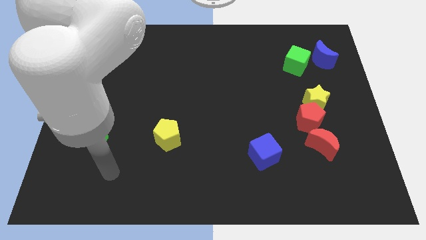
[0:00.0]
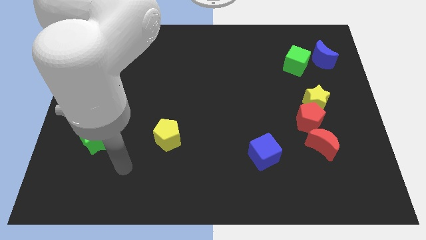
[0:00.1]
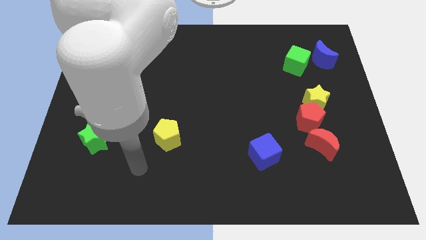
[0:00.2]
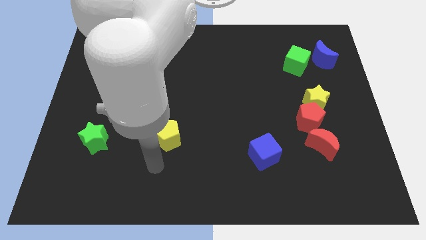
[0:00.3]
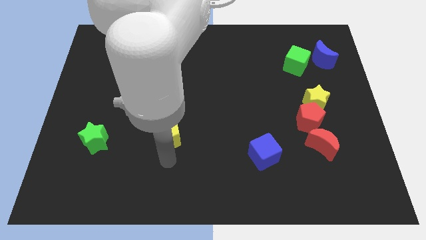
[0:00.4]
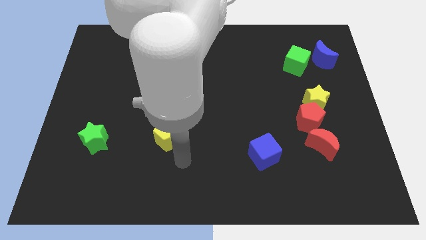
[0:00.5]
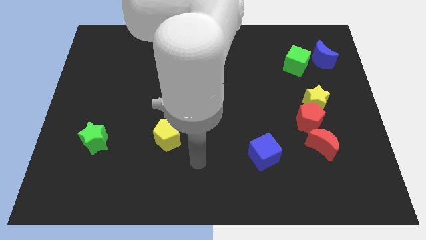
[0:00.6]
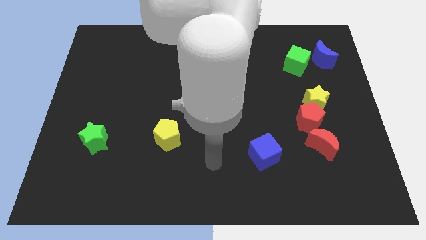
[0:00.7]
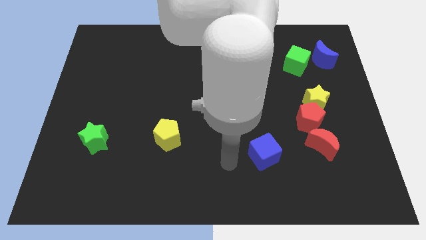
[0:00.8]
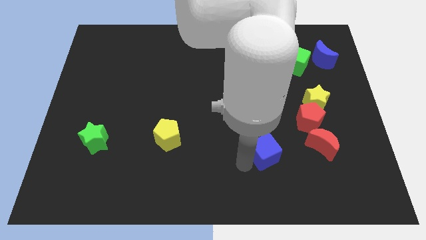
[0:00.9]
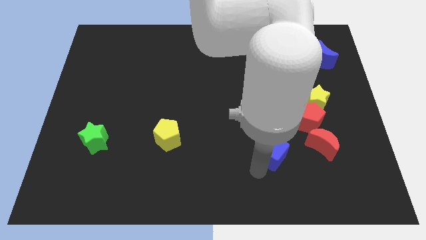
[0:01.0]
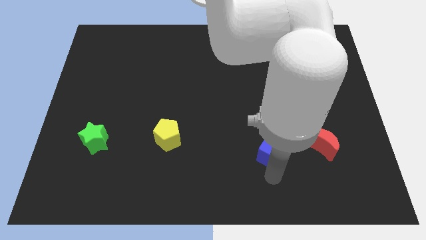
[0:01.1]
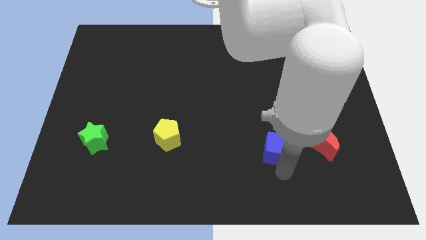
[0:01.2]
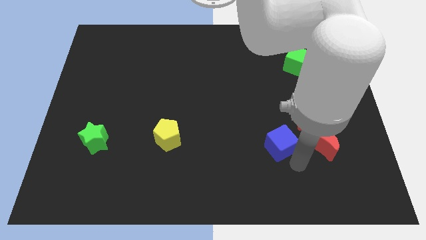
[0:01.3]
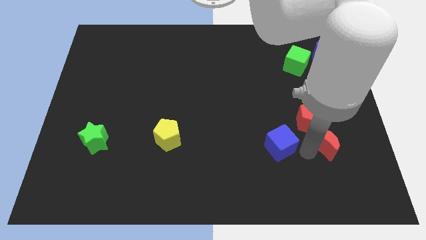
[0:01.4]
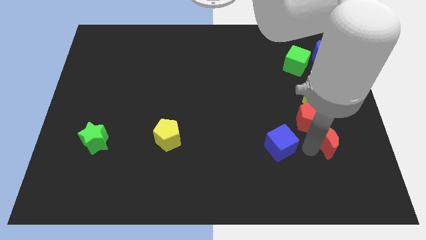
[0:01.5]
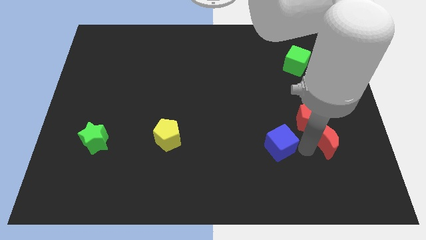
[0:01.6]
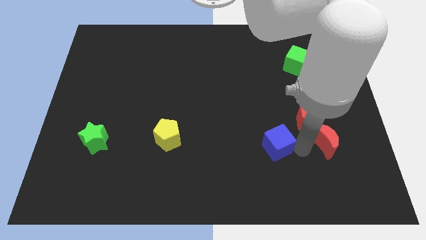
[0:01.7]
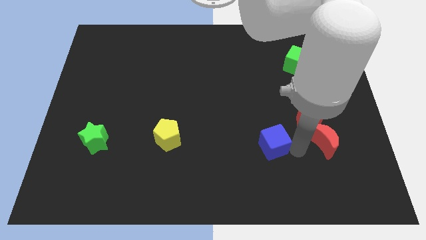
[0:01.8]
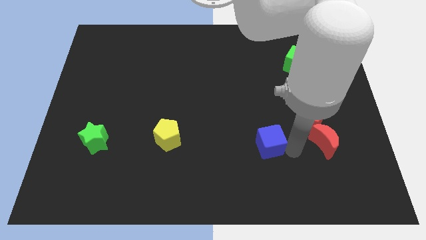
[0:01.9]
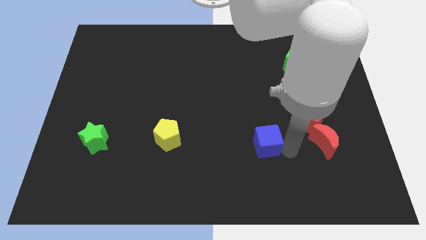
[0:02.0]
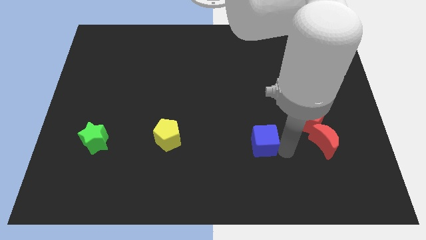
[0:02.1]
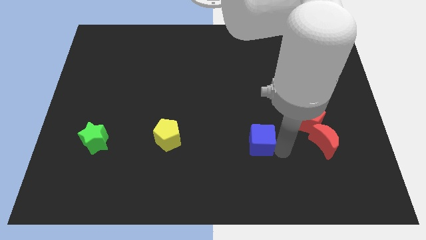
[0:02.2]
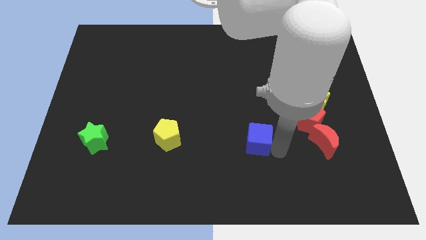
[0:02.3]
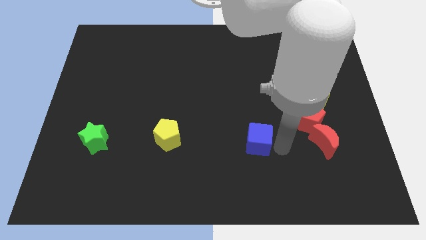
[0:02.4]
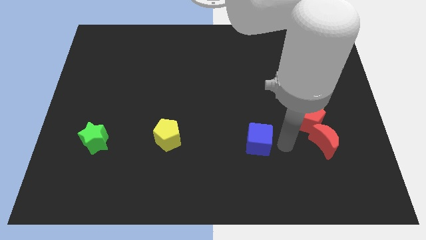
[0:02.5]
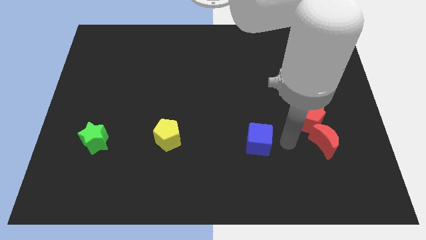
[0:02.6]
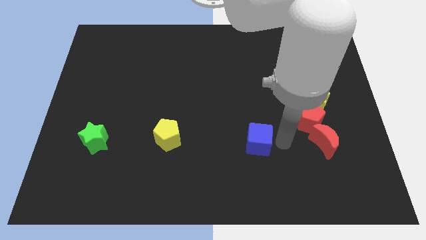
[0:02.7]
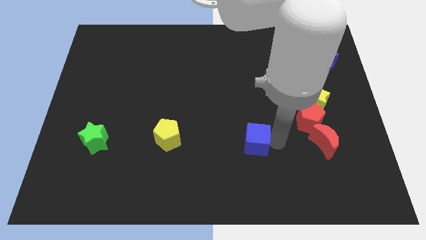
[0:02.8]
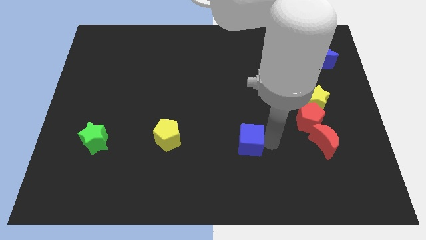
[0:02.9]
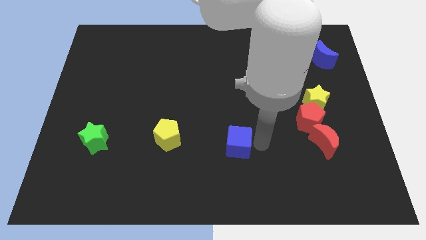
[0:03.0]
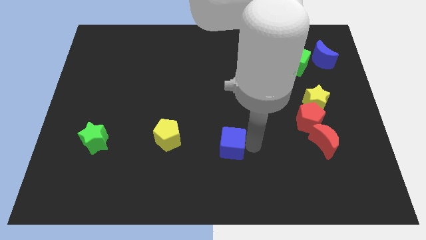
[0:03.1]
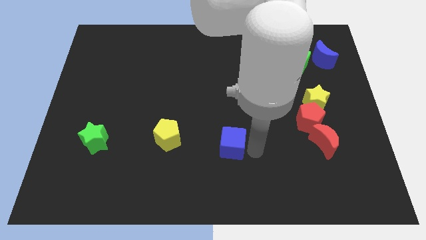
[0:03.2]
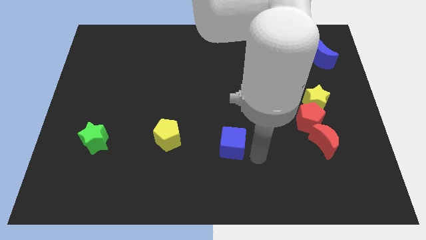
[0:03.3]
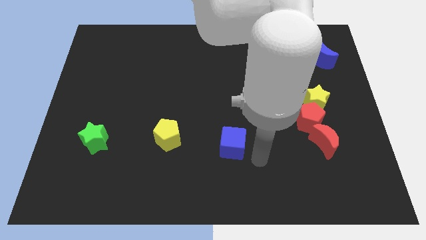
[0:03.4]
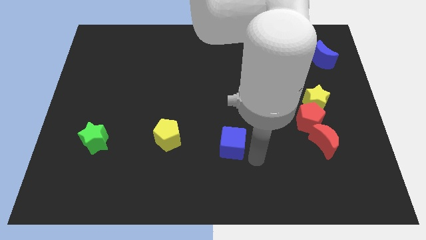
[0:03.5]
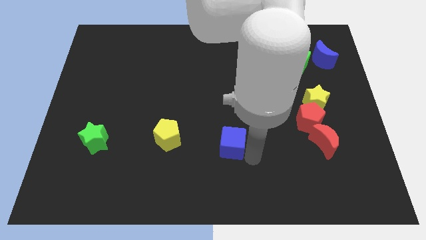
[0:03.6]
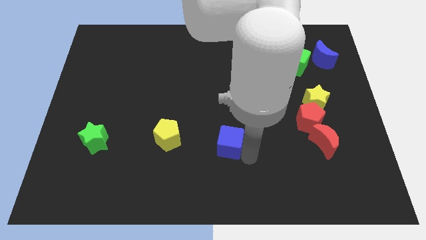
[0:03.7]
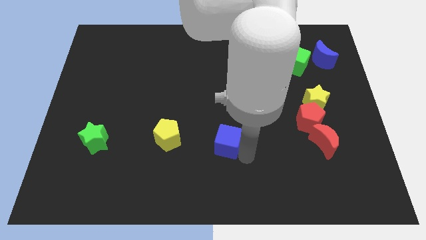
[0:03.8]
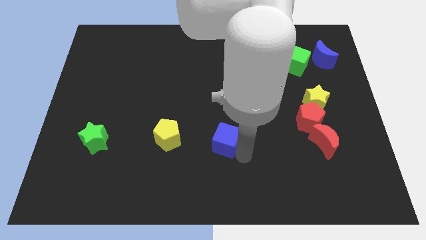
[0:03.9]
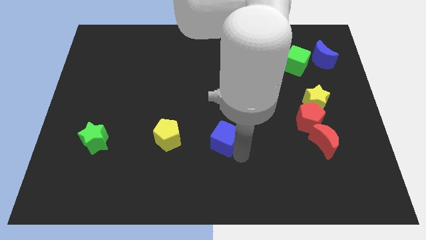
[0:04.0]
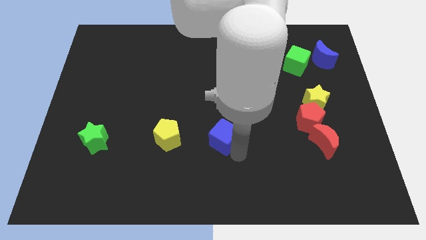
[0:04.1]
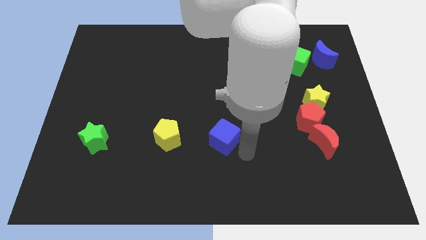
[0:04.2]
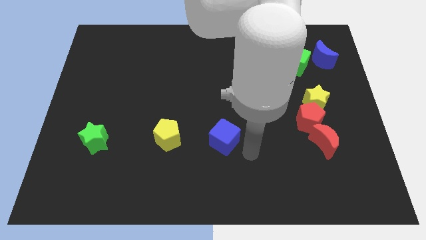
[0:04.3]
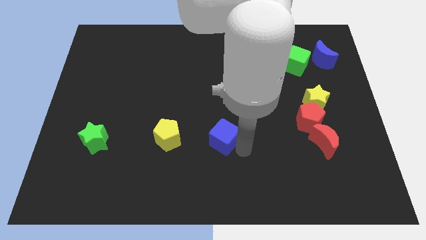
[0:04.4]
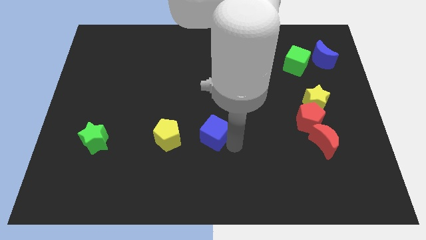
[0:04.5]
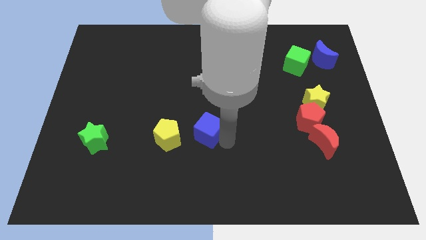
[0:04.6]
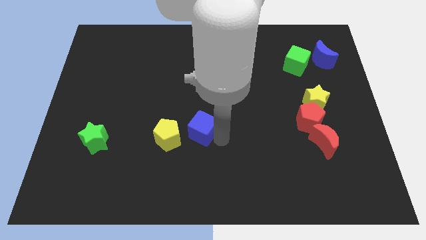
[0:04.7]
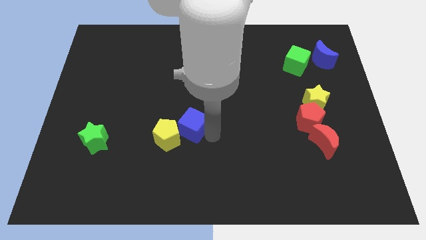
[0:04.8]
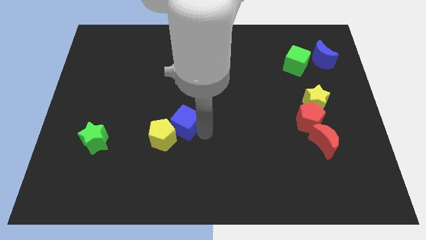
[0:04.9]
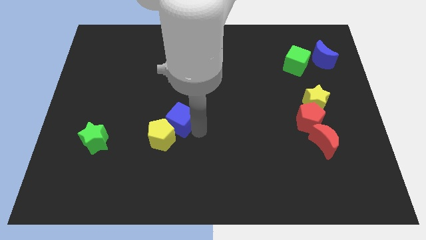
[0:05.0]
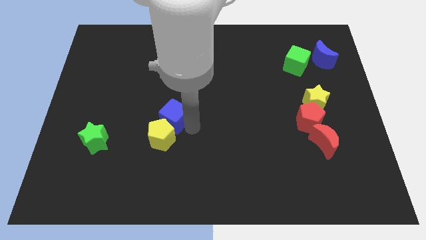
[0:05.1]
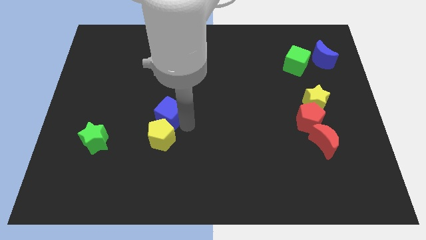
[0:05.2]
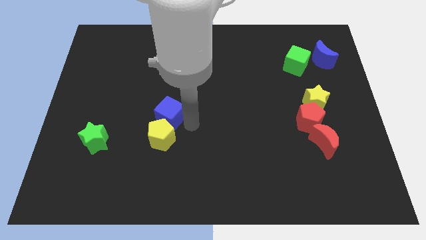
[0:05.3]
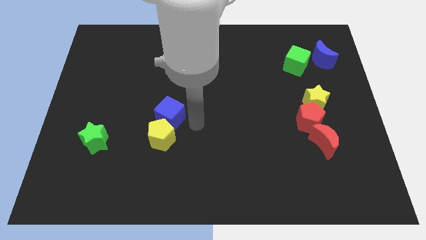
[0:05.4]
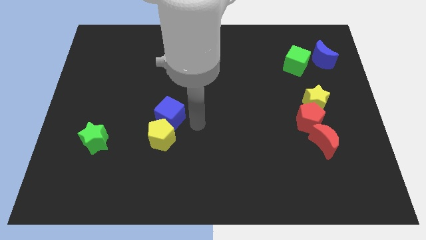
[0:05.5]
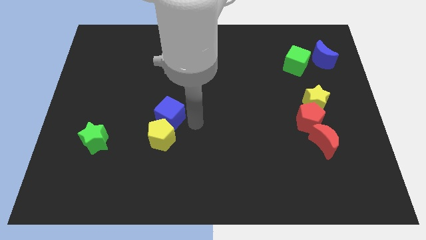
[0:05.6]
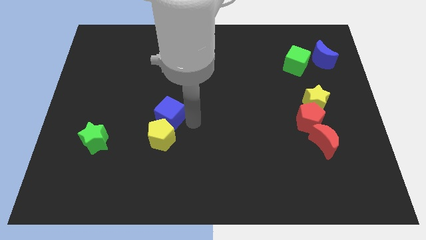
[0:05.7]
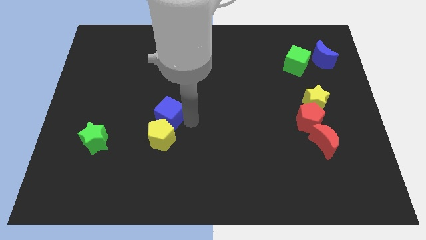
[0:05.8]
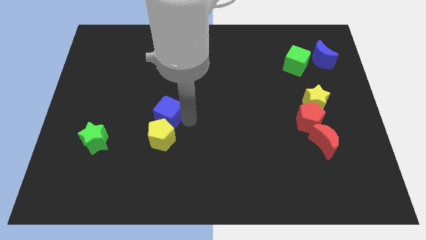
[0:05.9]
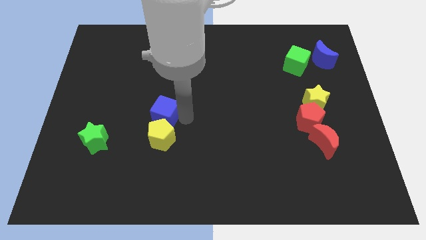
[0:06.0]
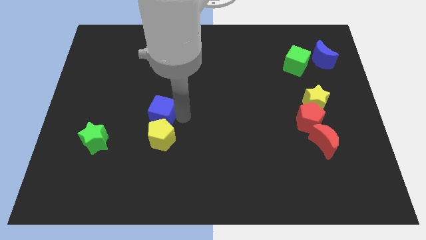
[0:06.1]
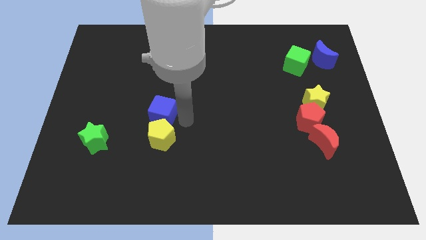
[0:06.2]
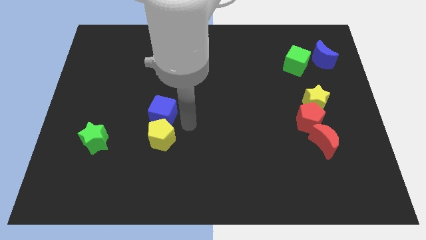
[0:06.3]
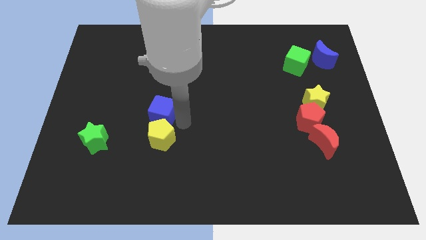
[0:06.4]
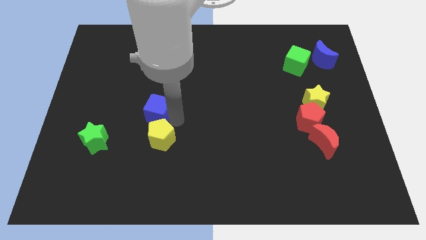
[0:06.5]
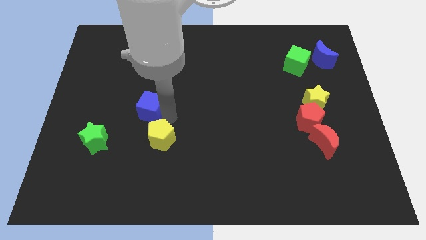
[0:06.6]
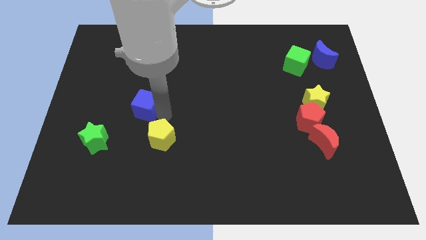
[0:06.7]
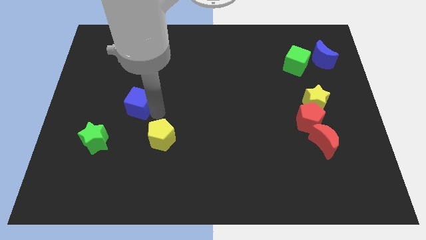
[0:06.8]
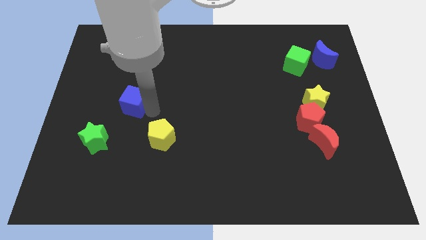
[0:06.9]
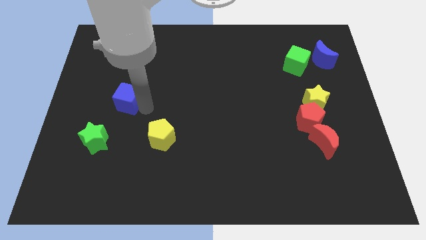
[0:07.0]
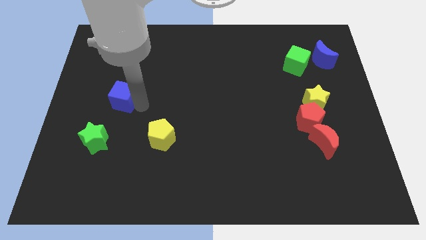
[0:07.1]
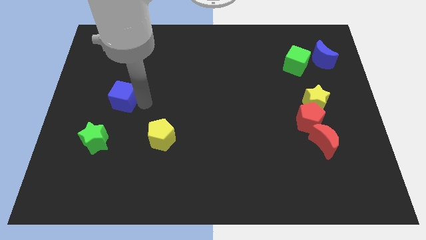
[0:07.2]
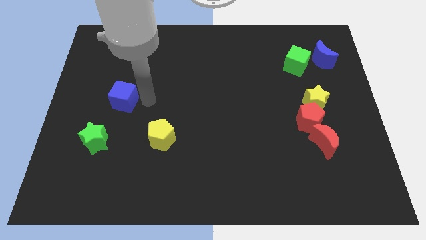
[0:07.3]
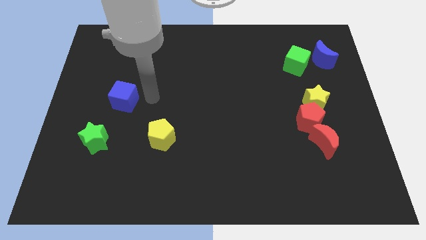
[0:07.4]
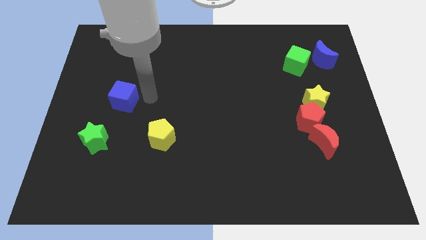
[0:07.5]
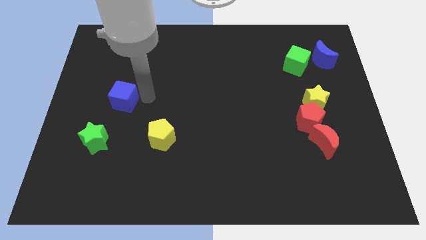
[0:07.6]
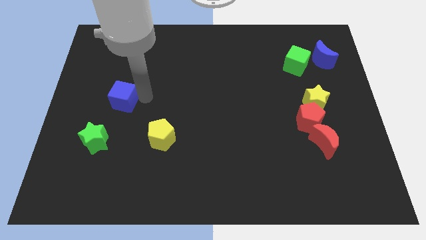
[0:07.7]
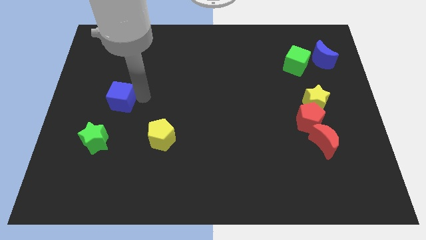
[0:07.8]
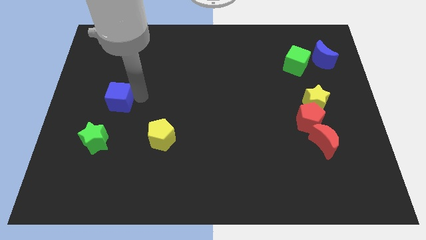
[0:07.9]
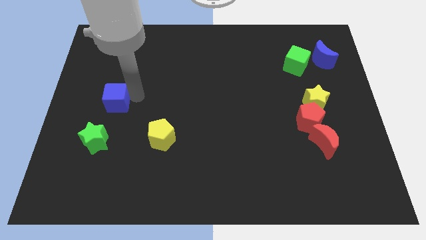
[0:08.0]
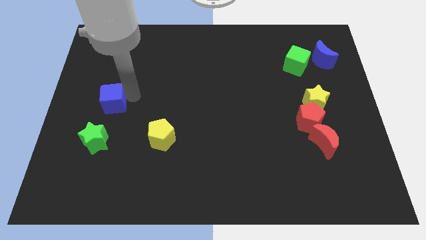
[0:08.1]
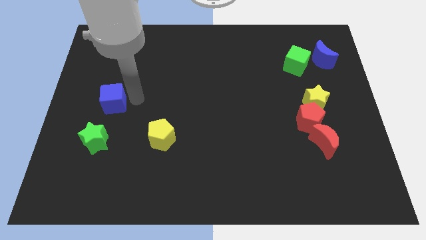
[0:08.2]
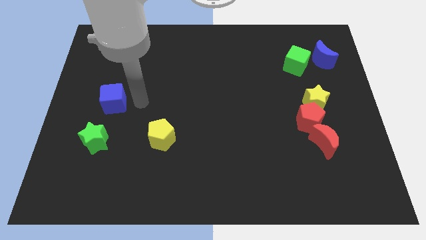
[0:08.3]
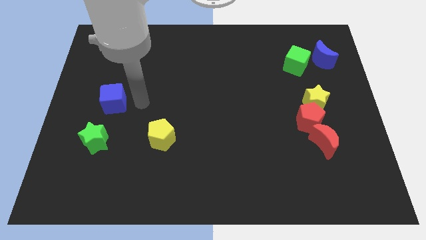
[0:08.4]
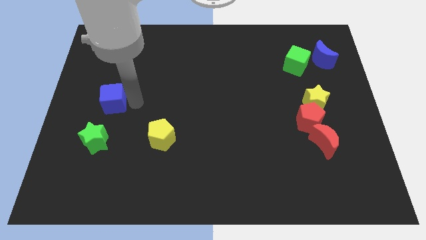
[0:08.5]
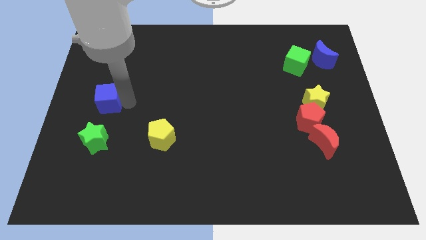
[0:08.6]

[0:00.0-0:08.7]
move the blue cube to the center left
